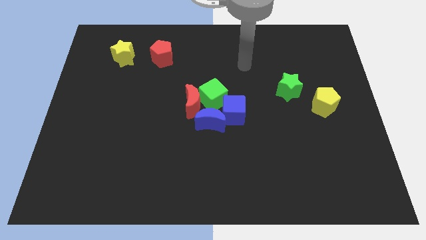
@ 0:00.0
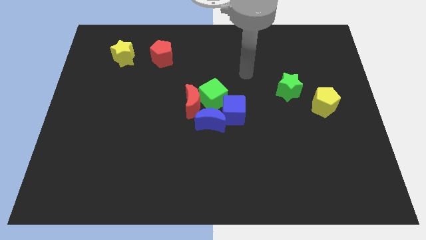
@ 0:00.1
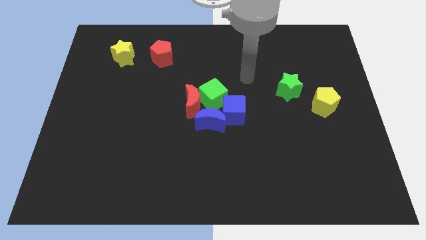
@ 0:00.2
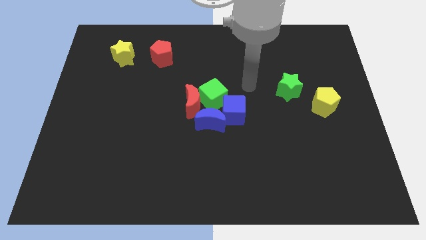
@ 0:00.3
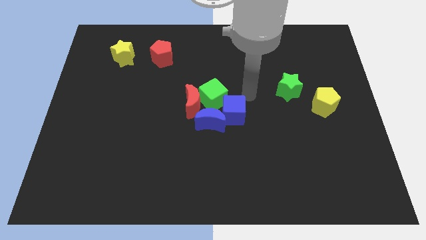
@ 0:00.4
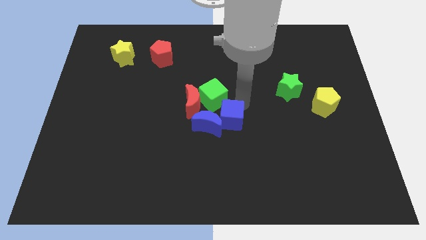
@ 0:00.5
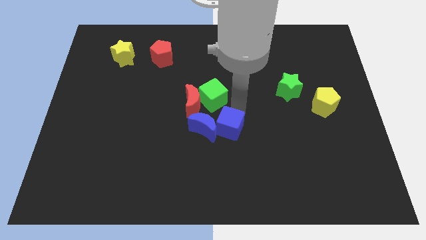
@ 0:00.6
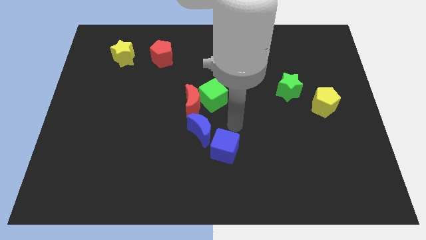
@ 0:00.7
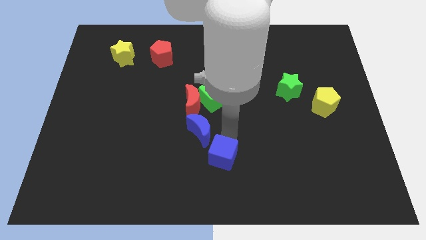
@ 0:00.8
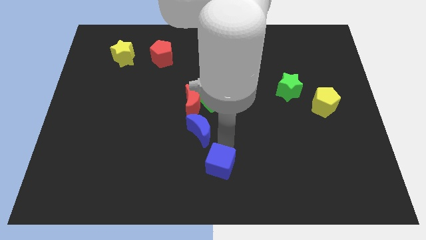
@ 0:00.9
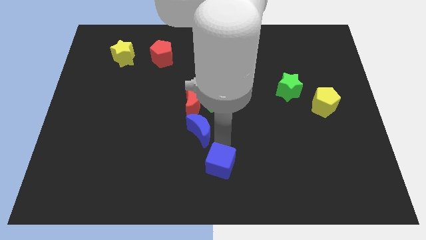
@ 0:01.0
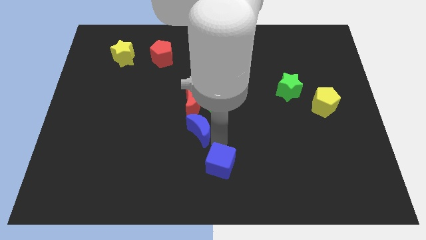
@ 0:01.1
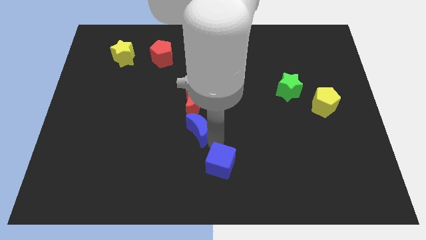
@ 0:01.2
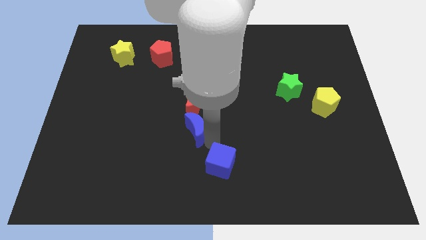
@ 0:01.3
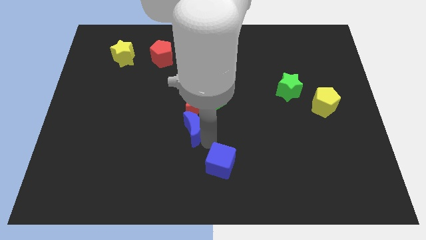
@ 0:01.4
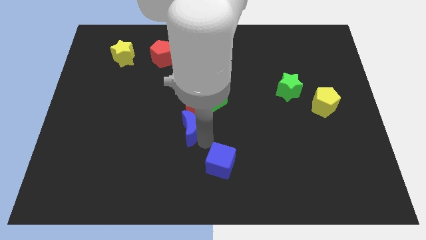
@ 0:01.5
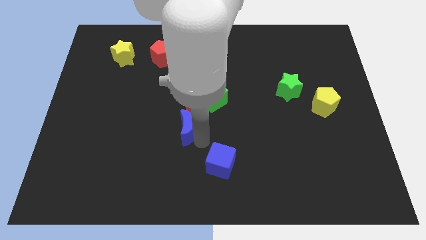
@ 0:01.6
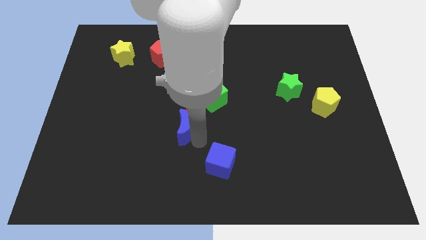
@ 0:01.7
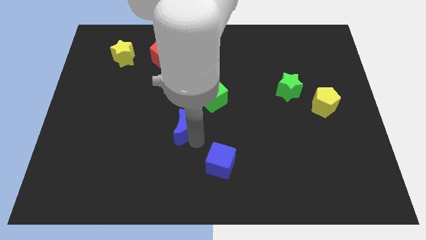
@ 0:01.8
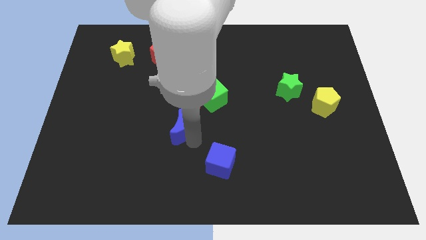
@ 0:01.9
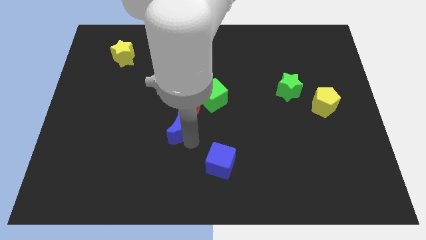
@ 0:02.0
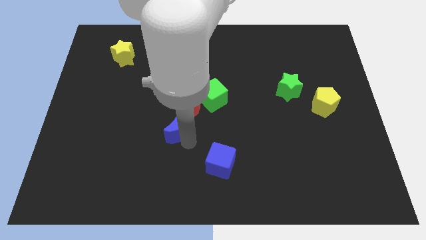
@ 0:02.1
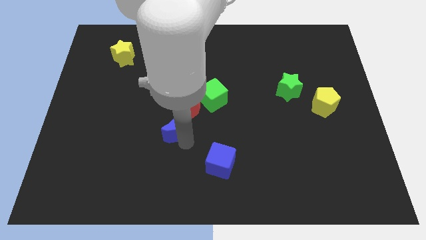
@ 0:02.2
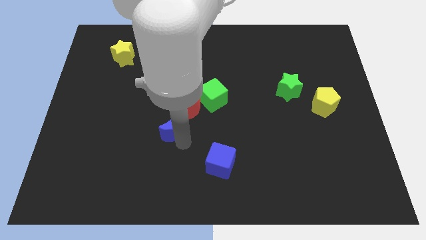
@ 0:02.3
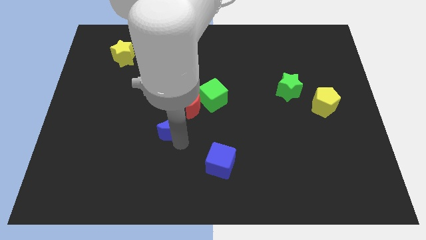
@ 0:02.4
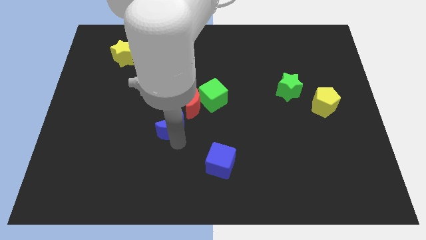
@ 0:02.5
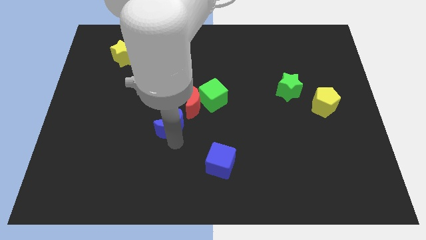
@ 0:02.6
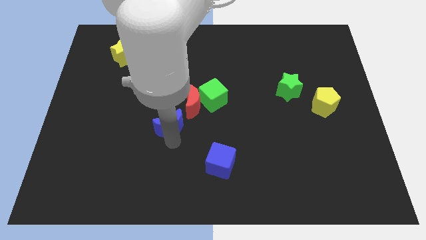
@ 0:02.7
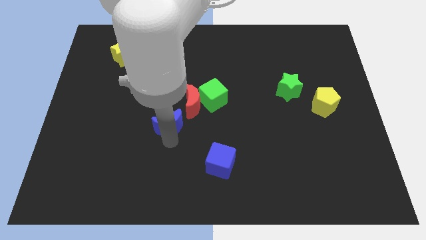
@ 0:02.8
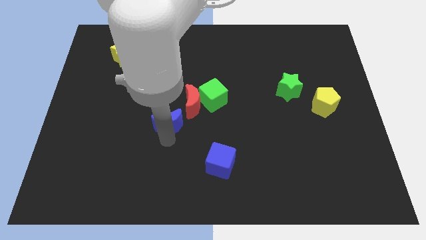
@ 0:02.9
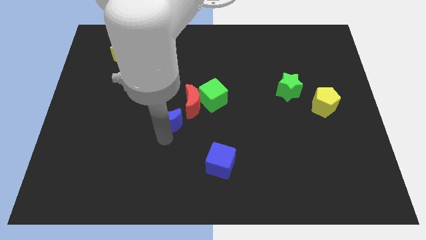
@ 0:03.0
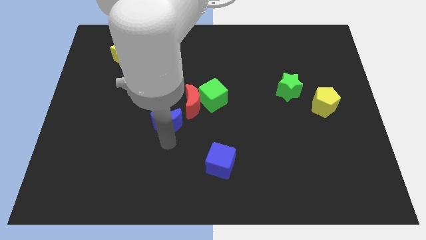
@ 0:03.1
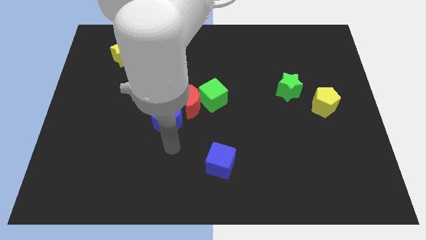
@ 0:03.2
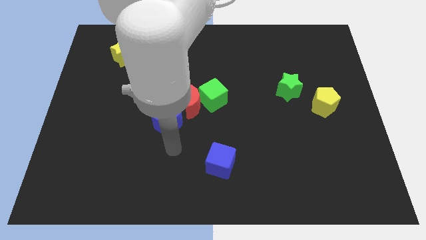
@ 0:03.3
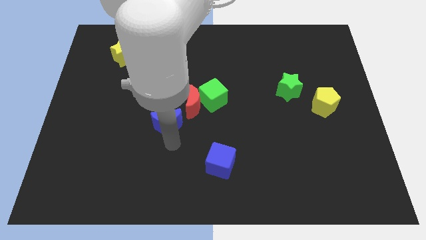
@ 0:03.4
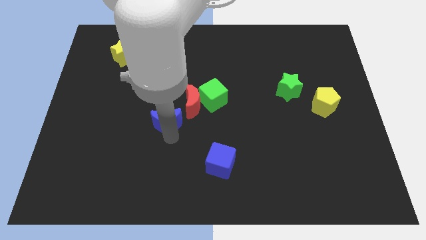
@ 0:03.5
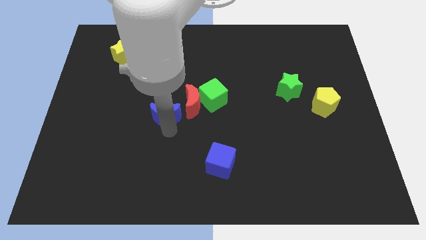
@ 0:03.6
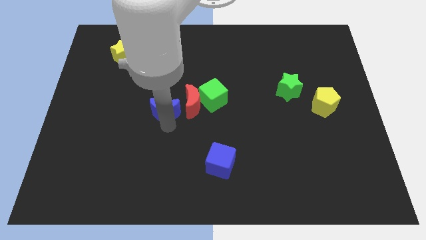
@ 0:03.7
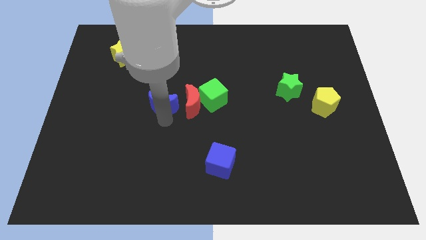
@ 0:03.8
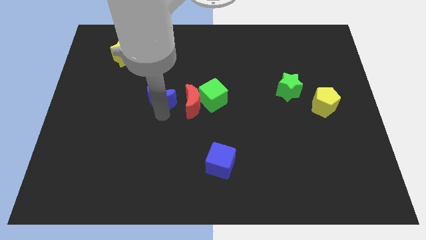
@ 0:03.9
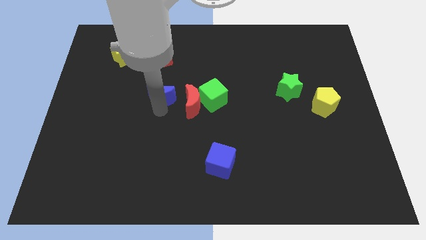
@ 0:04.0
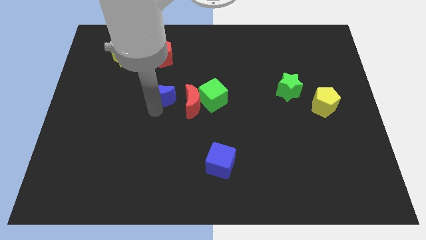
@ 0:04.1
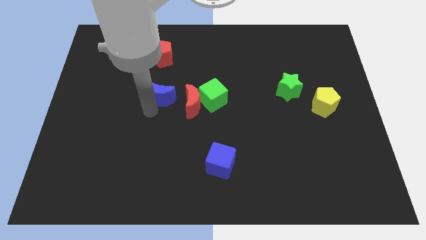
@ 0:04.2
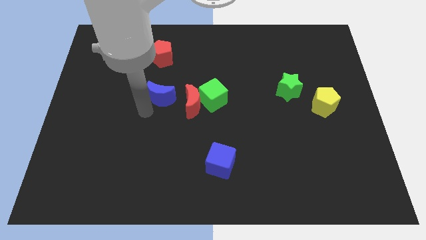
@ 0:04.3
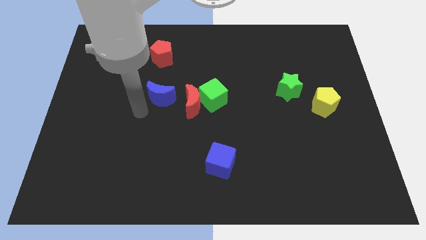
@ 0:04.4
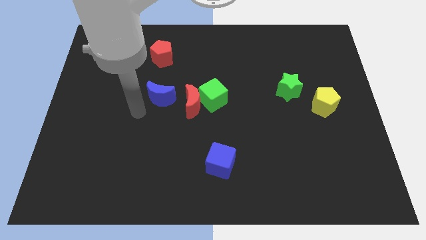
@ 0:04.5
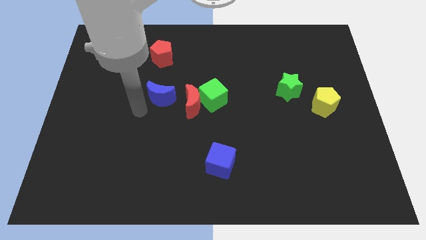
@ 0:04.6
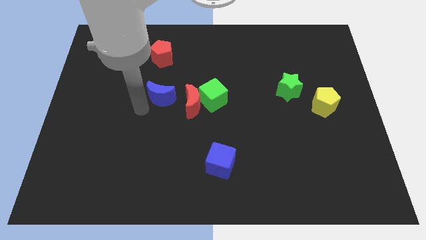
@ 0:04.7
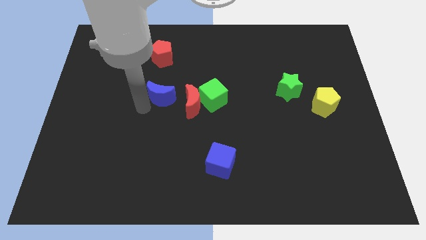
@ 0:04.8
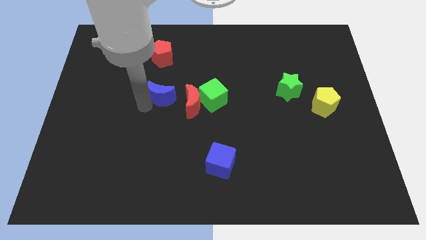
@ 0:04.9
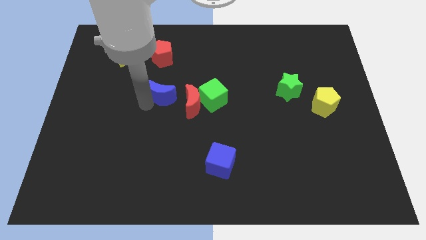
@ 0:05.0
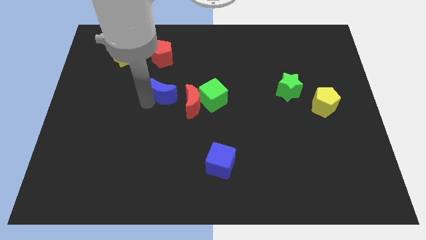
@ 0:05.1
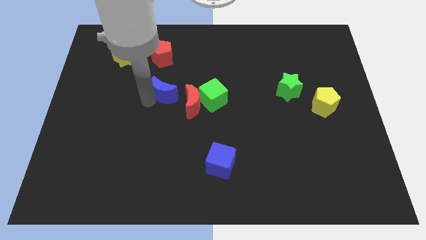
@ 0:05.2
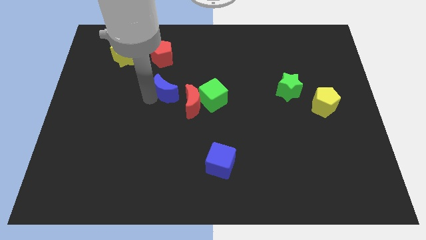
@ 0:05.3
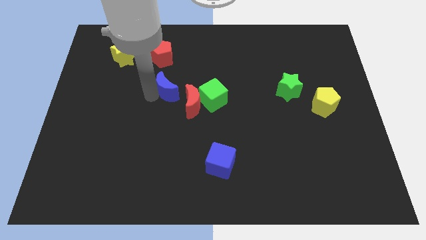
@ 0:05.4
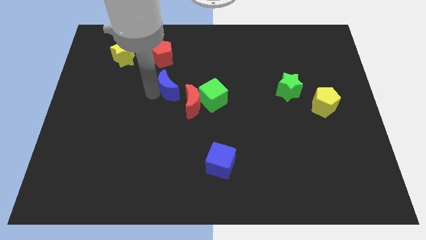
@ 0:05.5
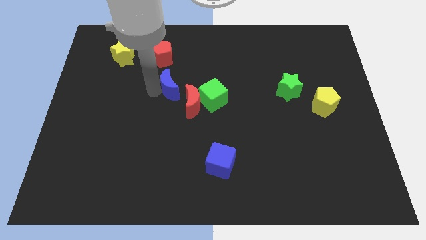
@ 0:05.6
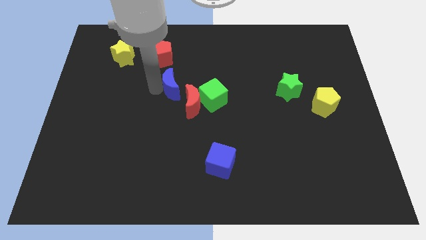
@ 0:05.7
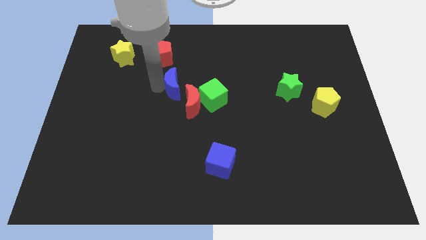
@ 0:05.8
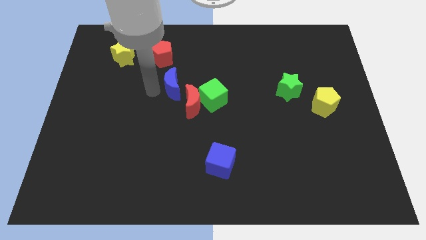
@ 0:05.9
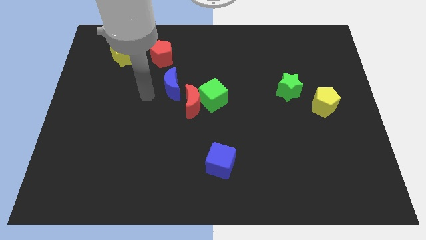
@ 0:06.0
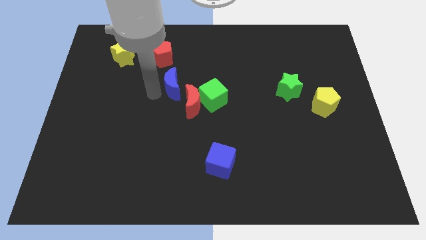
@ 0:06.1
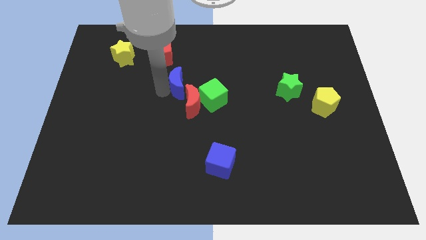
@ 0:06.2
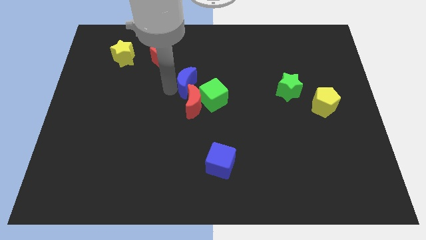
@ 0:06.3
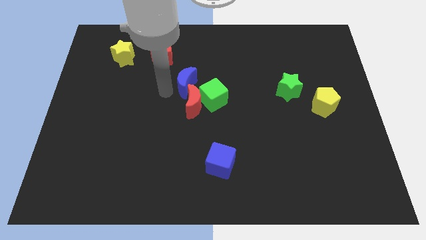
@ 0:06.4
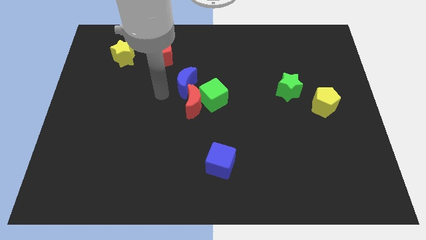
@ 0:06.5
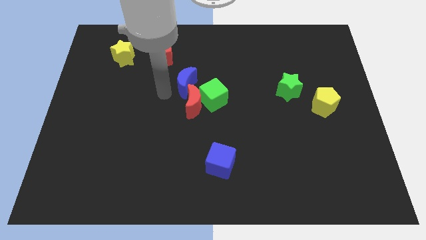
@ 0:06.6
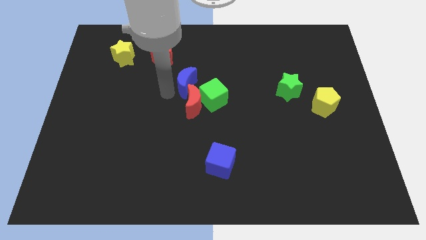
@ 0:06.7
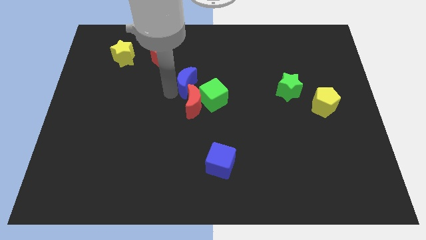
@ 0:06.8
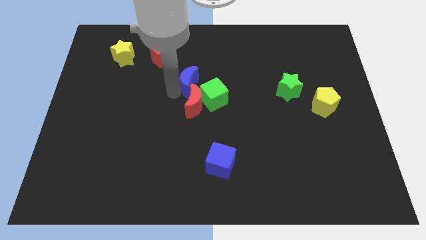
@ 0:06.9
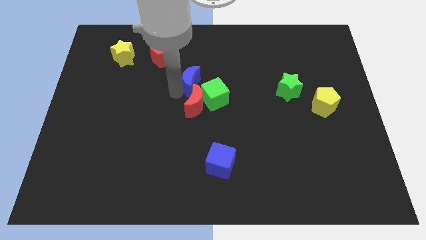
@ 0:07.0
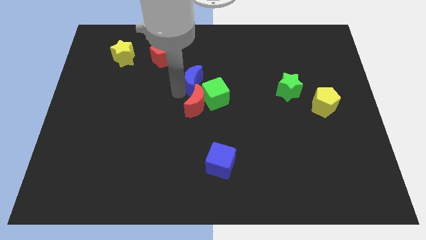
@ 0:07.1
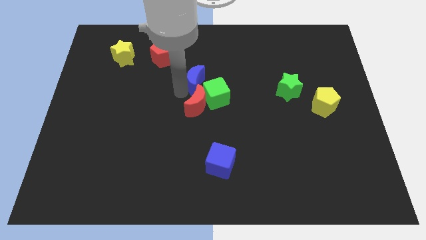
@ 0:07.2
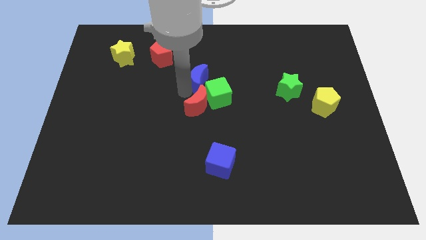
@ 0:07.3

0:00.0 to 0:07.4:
move the blue moon to the top of the green cube
